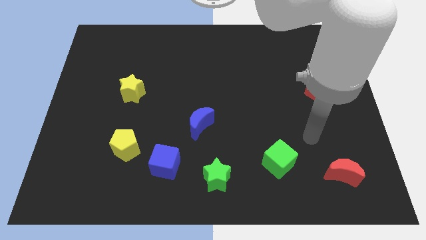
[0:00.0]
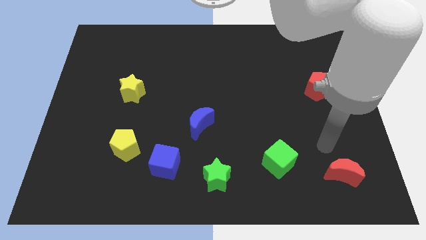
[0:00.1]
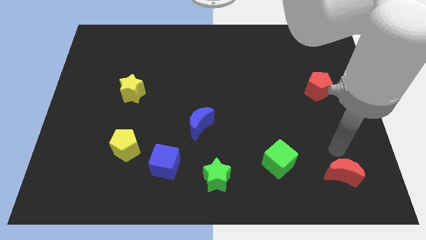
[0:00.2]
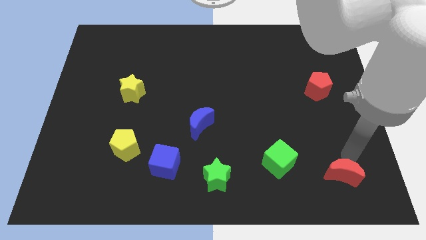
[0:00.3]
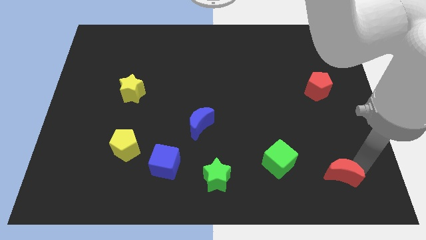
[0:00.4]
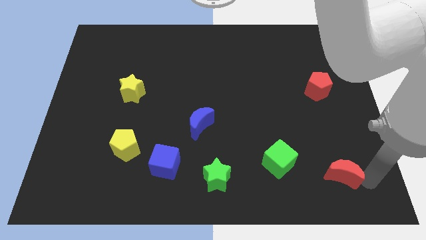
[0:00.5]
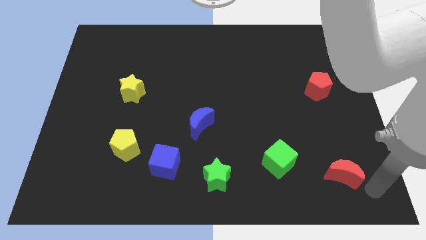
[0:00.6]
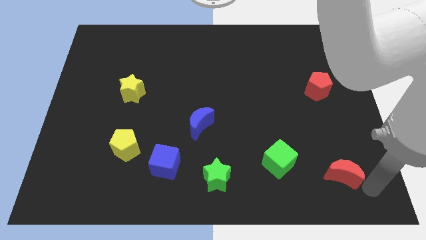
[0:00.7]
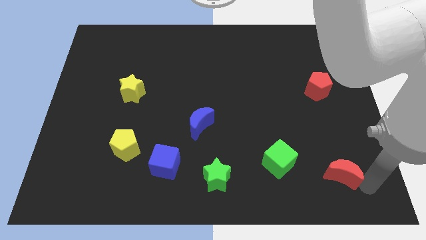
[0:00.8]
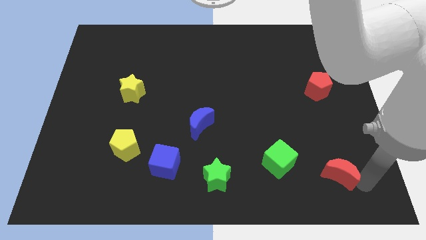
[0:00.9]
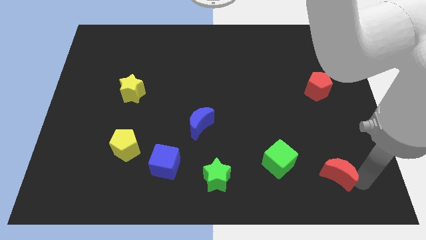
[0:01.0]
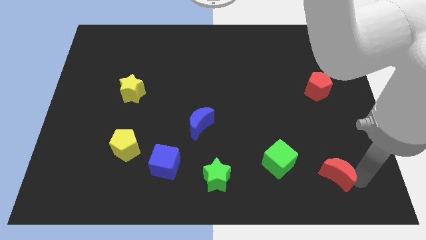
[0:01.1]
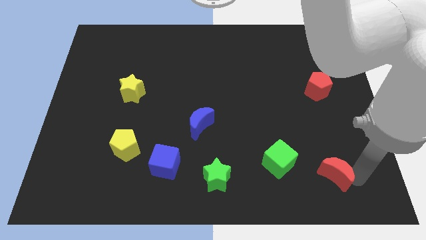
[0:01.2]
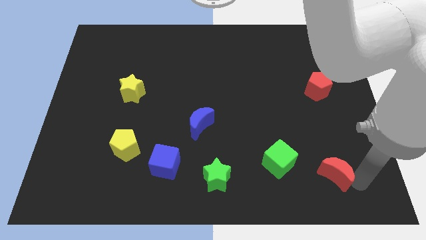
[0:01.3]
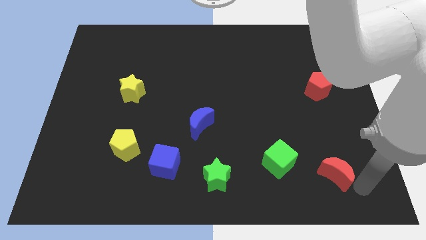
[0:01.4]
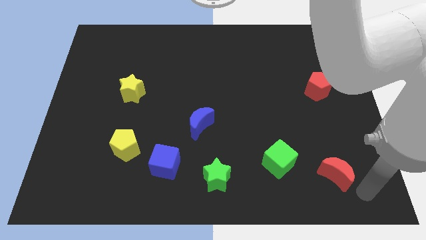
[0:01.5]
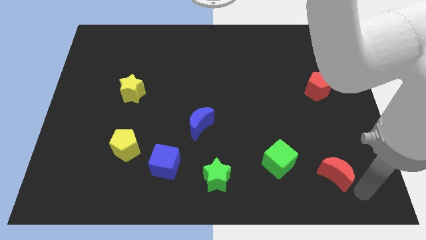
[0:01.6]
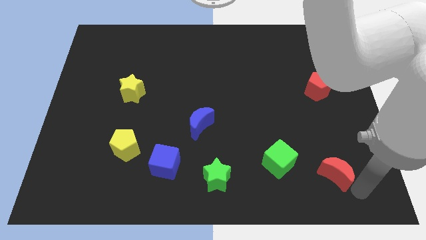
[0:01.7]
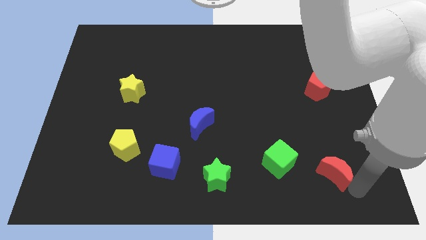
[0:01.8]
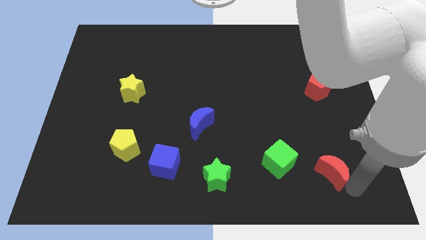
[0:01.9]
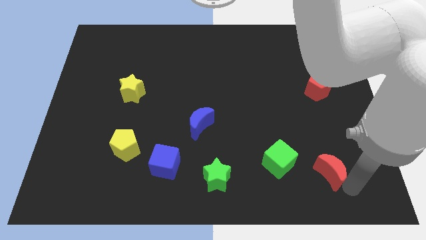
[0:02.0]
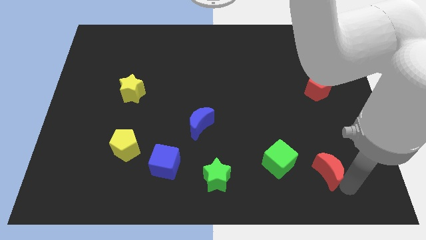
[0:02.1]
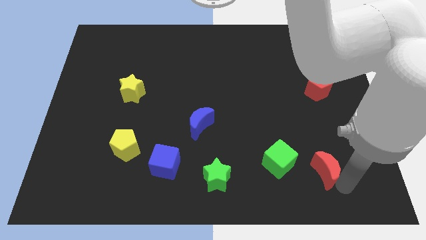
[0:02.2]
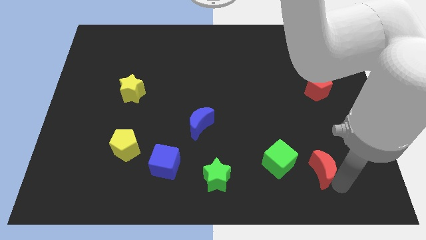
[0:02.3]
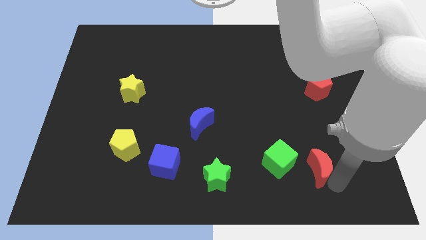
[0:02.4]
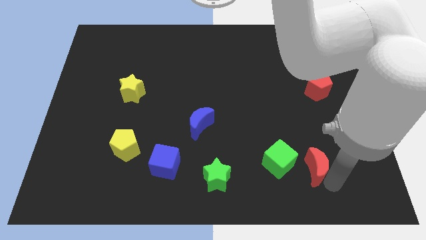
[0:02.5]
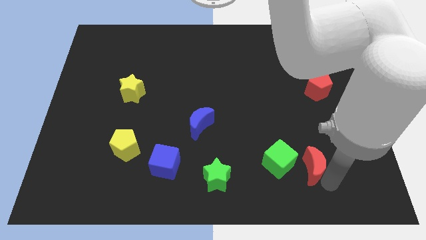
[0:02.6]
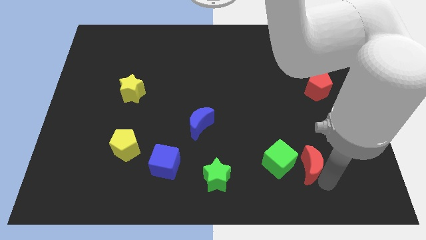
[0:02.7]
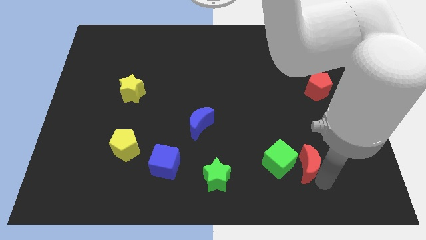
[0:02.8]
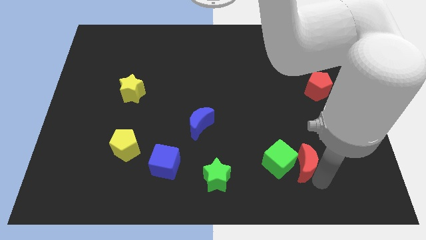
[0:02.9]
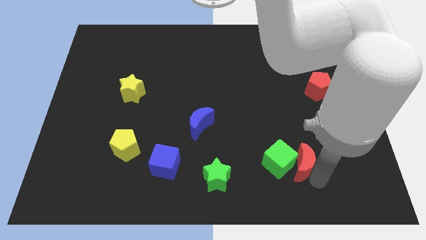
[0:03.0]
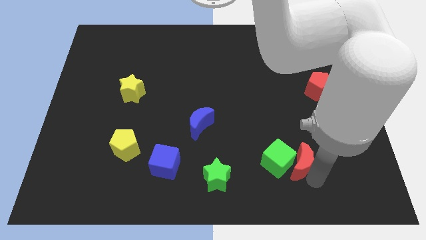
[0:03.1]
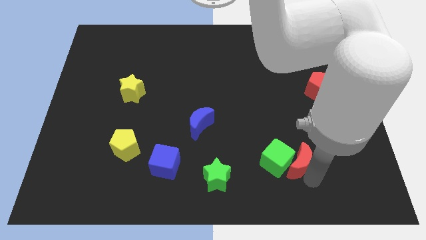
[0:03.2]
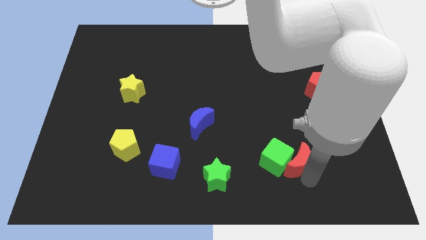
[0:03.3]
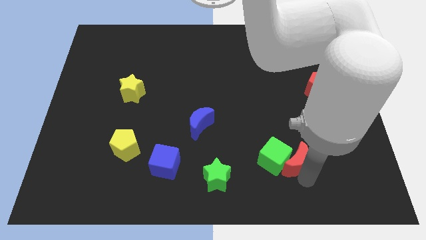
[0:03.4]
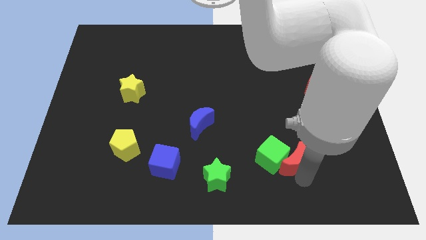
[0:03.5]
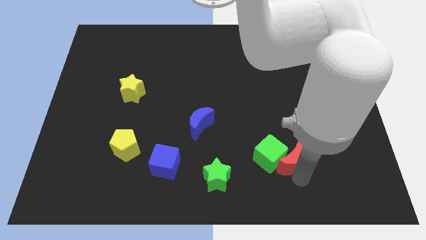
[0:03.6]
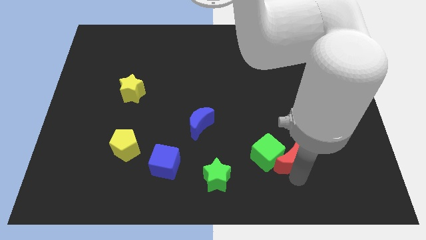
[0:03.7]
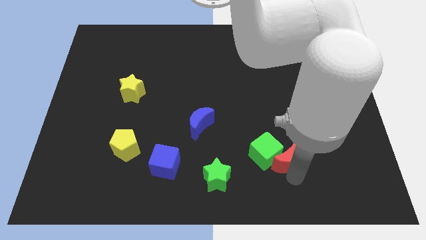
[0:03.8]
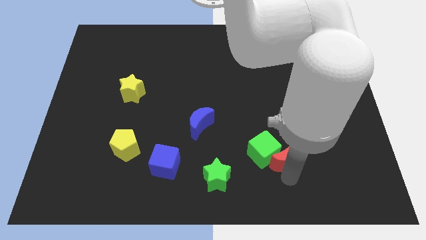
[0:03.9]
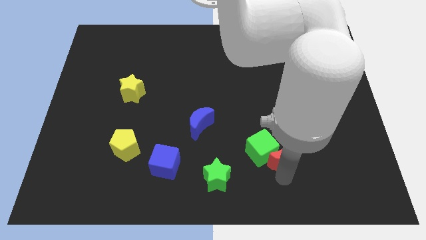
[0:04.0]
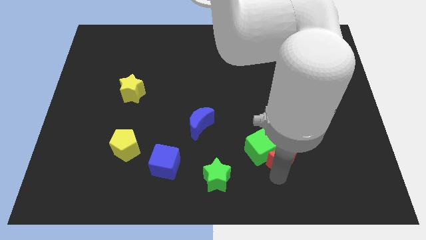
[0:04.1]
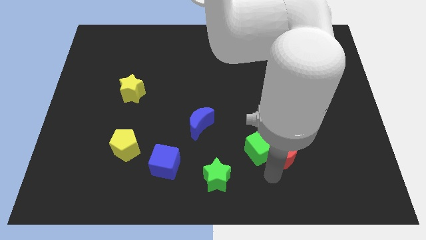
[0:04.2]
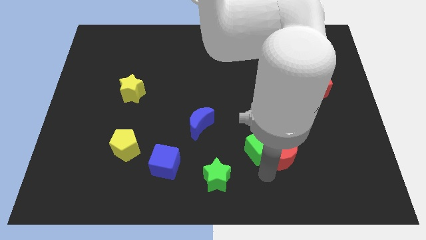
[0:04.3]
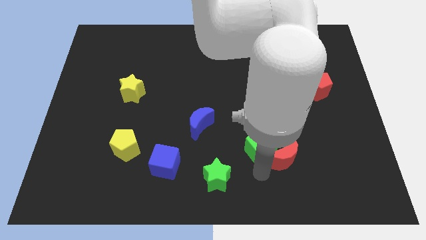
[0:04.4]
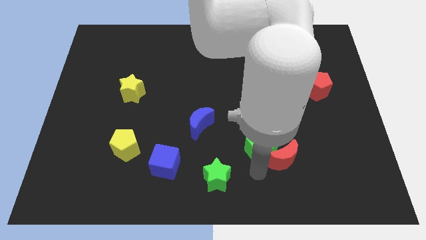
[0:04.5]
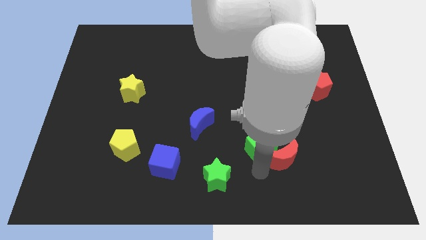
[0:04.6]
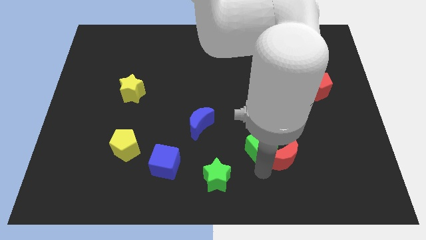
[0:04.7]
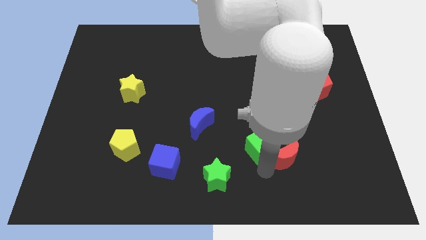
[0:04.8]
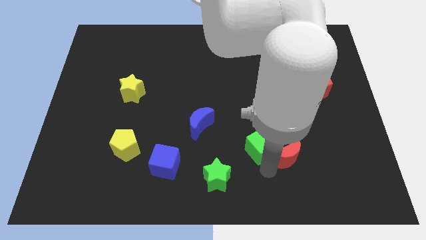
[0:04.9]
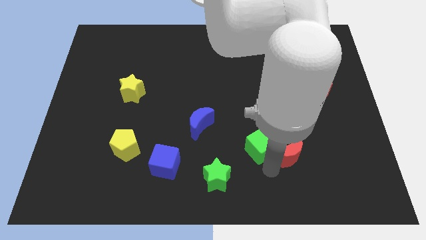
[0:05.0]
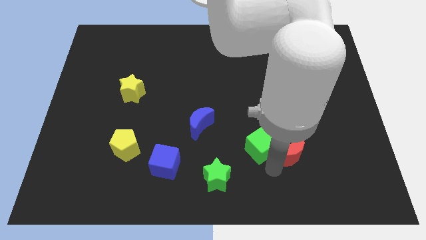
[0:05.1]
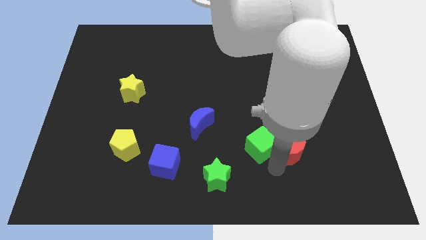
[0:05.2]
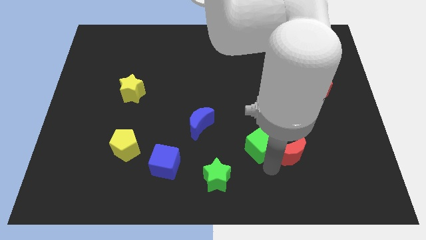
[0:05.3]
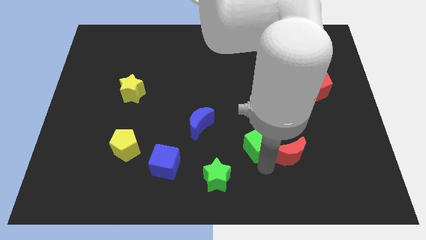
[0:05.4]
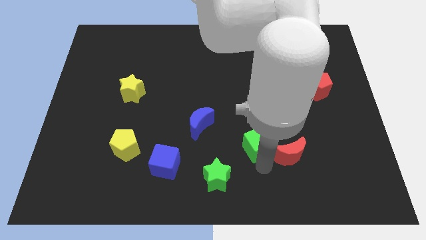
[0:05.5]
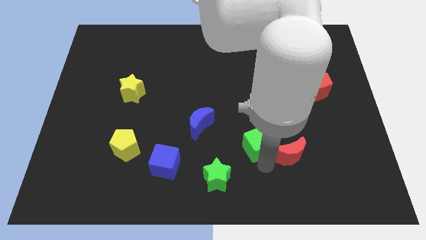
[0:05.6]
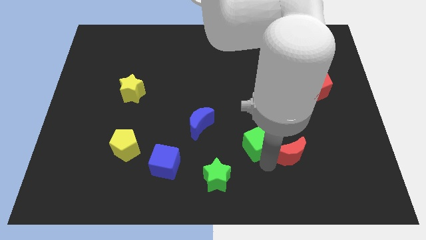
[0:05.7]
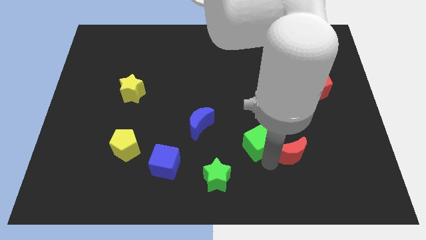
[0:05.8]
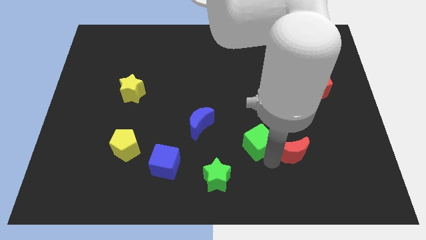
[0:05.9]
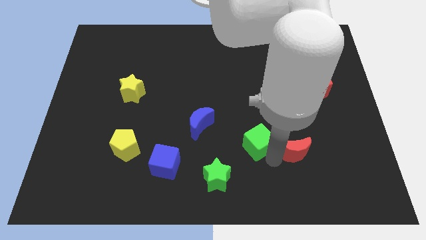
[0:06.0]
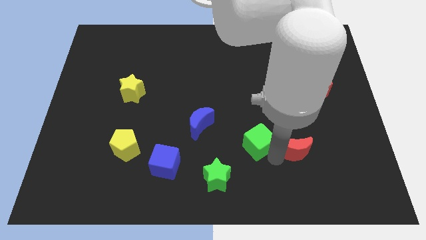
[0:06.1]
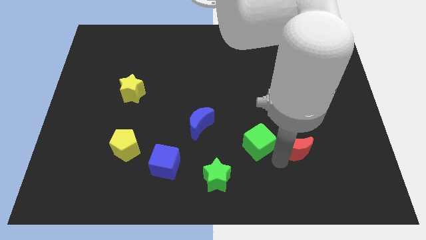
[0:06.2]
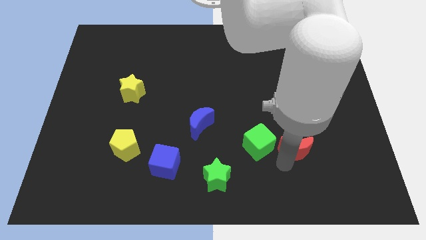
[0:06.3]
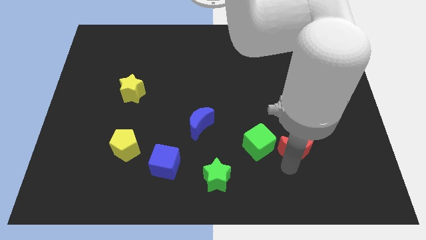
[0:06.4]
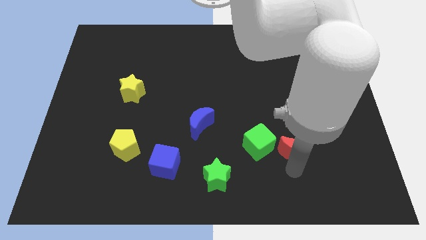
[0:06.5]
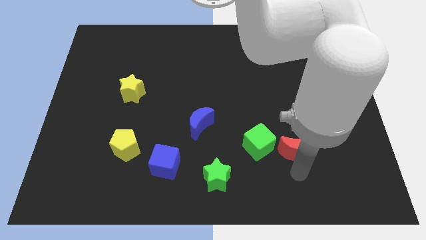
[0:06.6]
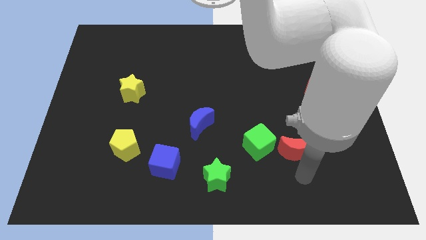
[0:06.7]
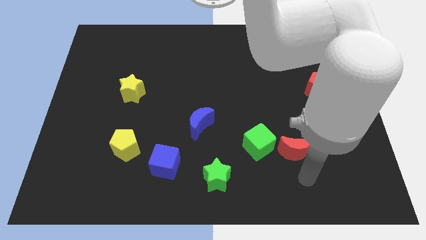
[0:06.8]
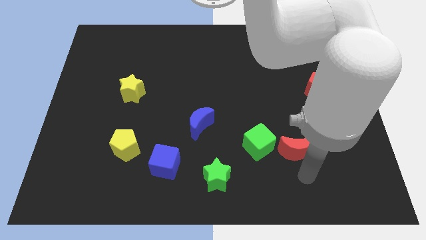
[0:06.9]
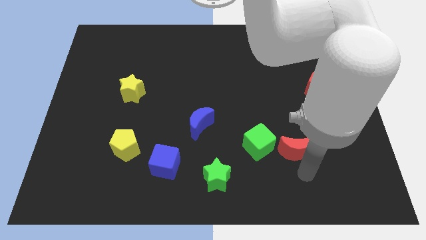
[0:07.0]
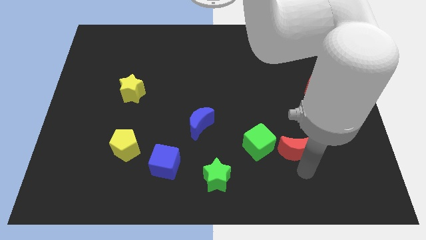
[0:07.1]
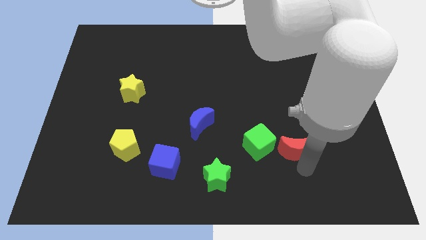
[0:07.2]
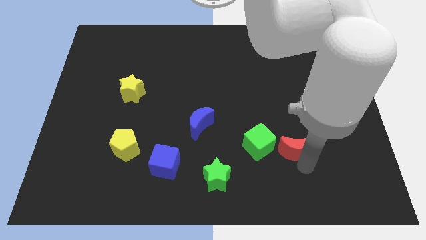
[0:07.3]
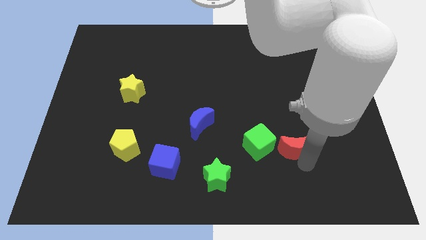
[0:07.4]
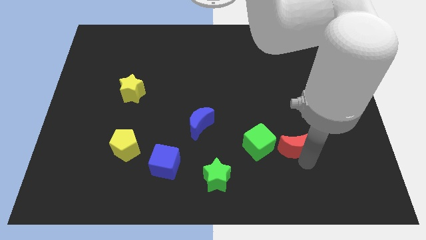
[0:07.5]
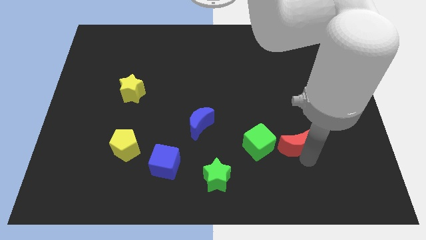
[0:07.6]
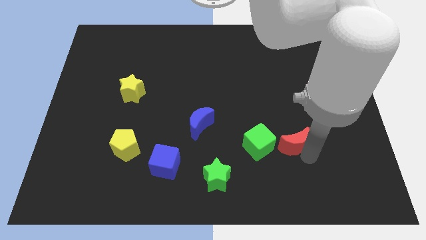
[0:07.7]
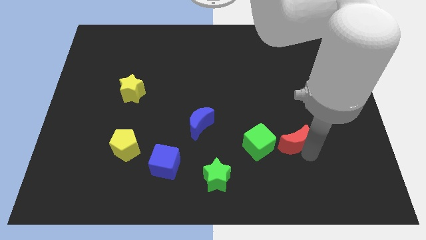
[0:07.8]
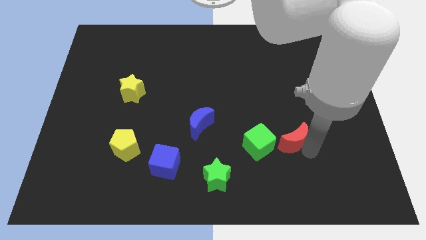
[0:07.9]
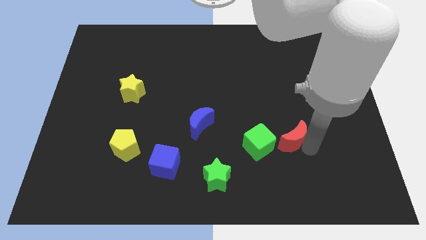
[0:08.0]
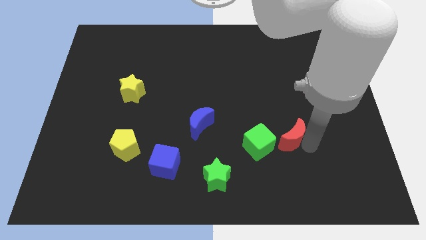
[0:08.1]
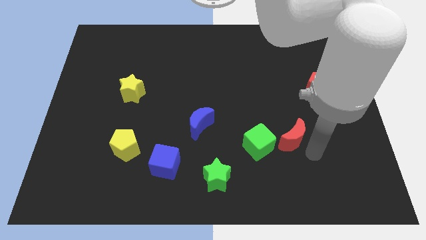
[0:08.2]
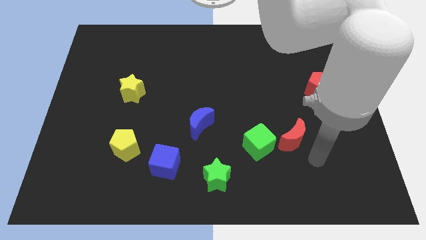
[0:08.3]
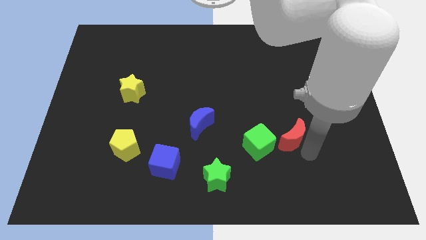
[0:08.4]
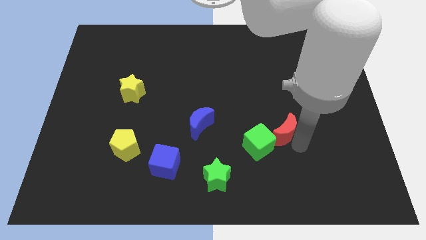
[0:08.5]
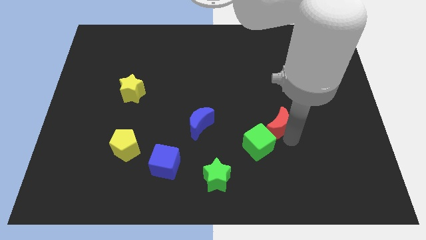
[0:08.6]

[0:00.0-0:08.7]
put the red moon to the top of the green cube
